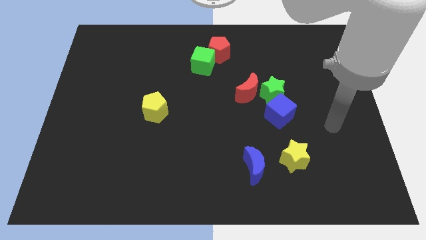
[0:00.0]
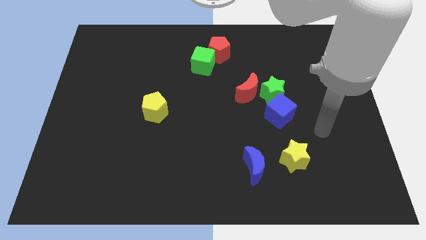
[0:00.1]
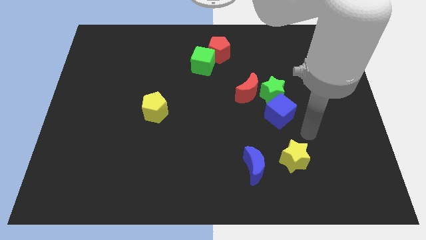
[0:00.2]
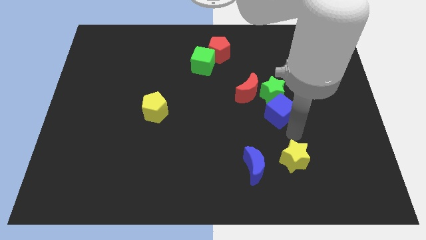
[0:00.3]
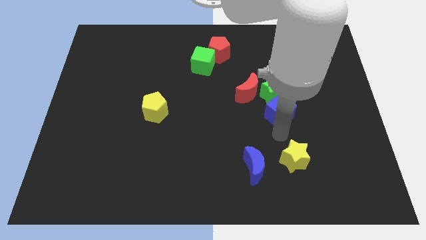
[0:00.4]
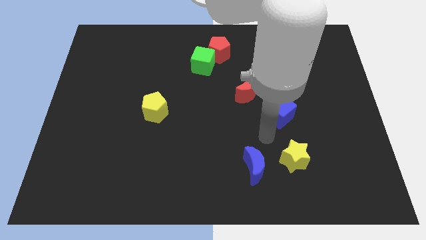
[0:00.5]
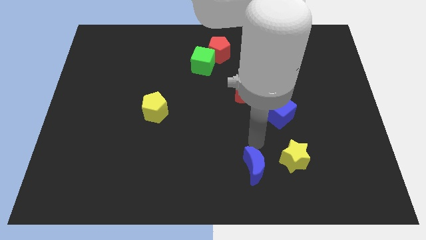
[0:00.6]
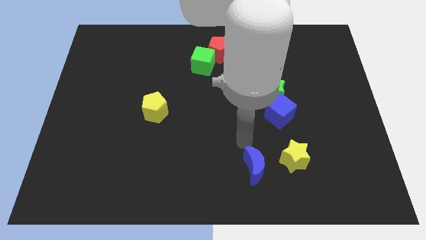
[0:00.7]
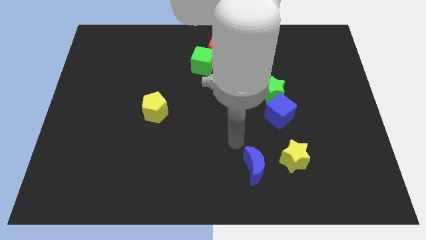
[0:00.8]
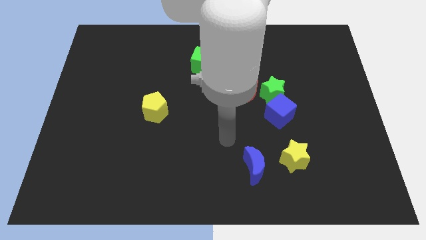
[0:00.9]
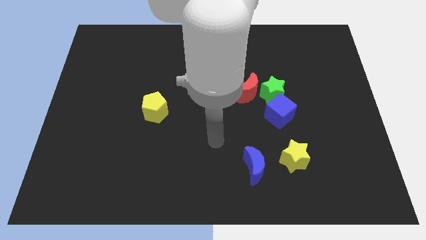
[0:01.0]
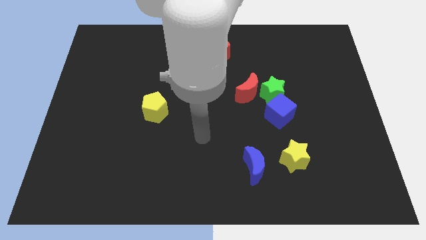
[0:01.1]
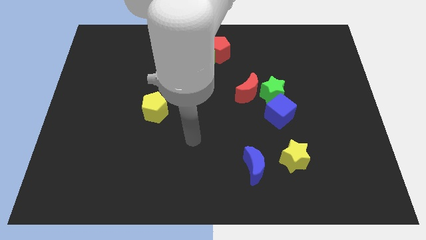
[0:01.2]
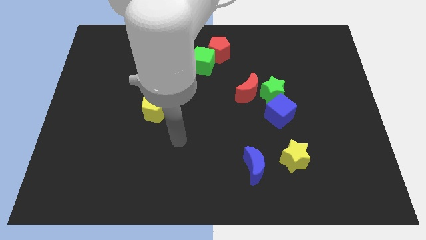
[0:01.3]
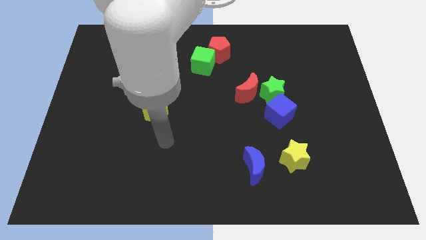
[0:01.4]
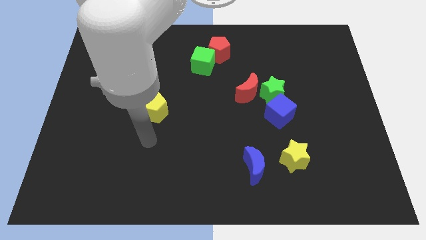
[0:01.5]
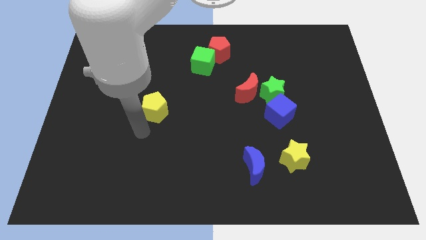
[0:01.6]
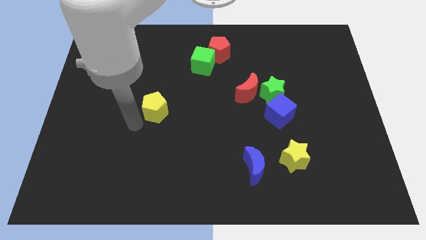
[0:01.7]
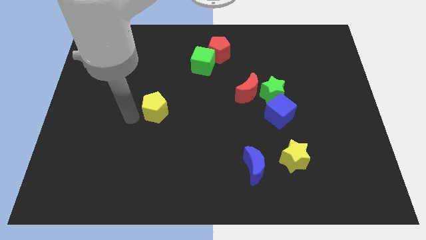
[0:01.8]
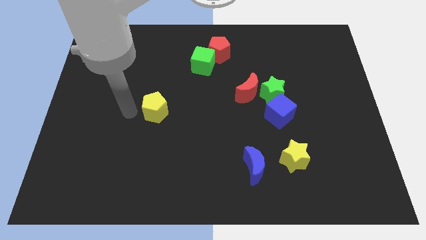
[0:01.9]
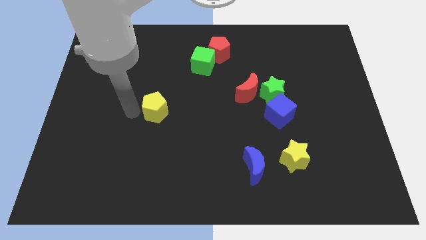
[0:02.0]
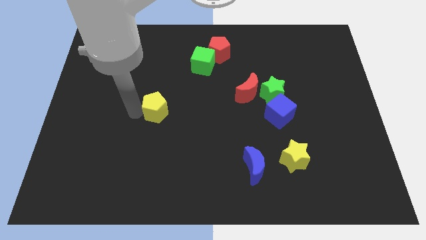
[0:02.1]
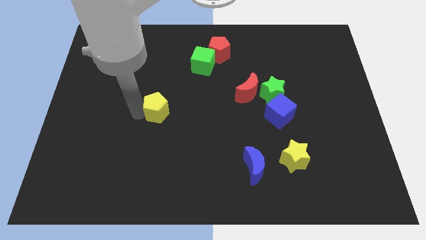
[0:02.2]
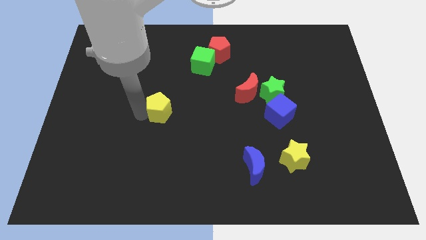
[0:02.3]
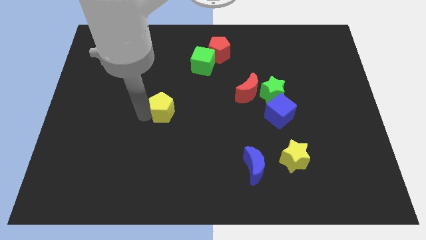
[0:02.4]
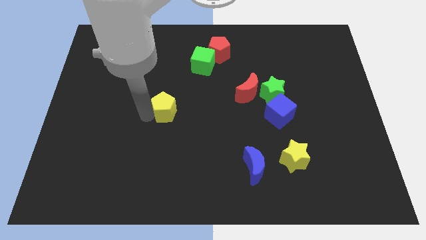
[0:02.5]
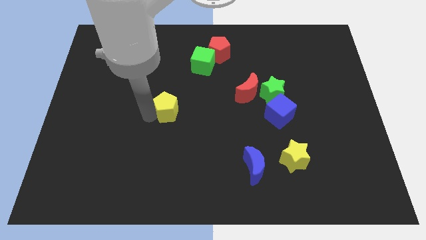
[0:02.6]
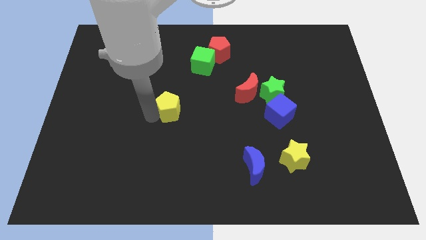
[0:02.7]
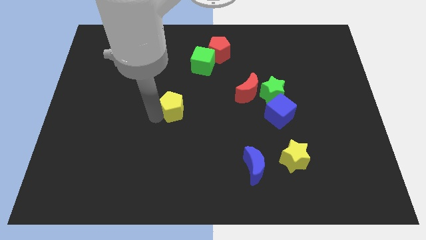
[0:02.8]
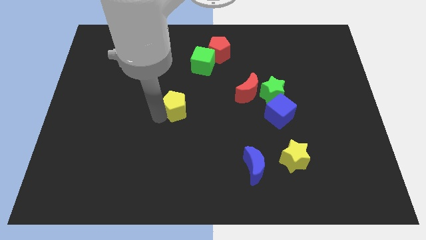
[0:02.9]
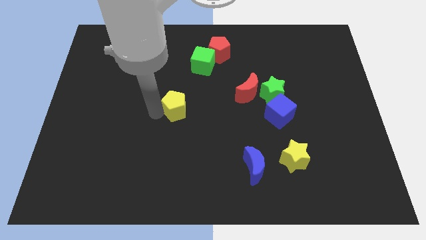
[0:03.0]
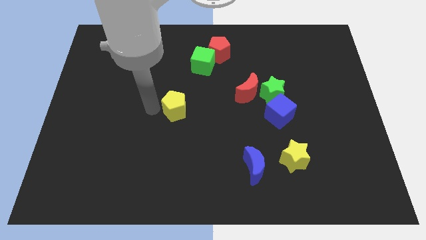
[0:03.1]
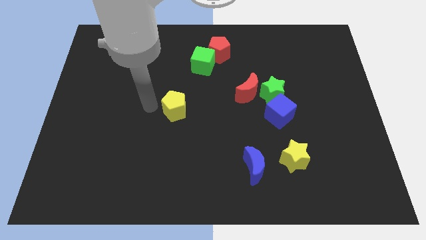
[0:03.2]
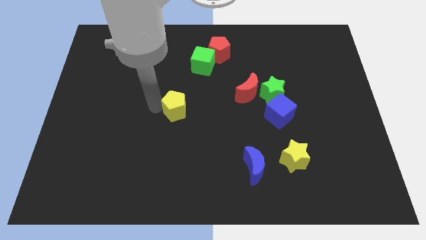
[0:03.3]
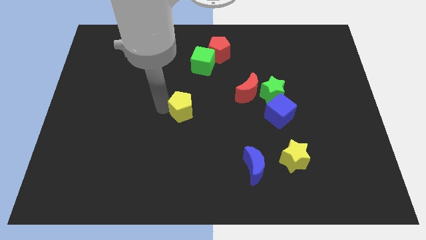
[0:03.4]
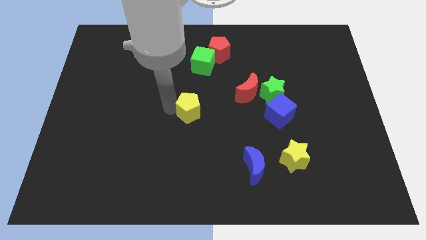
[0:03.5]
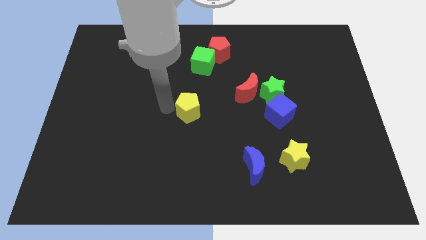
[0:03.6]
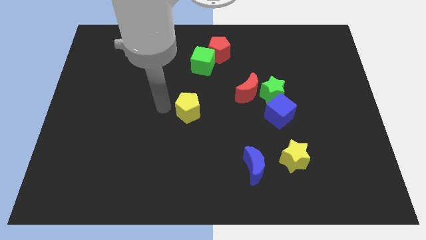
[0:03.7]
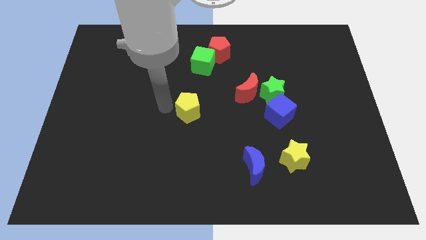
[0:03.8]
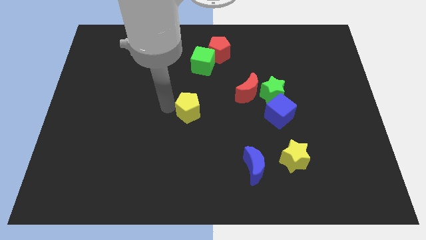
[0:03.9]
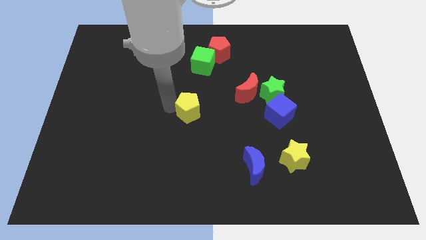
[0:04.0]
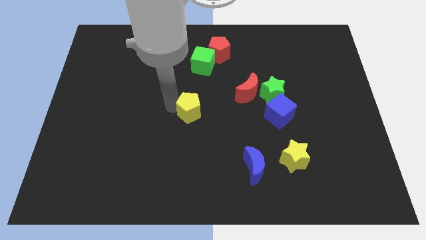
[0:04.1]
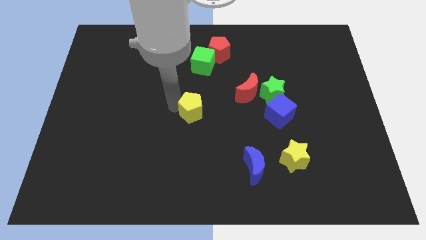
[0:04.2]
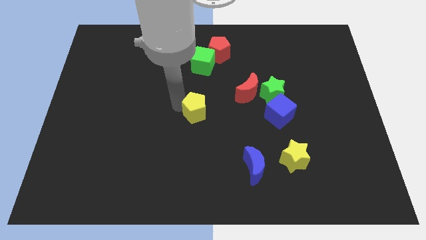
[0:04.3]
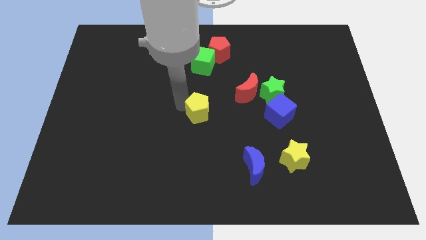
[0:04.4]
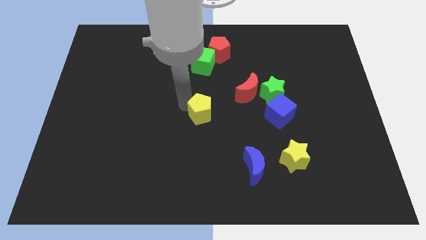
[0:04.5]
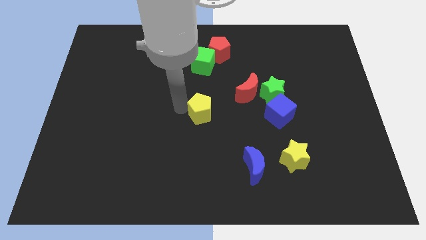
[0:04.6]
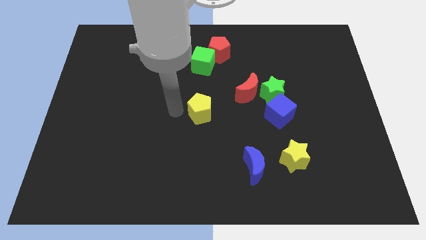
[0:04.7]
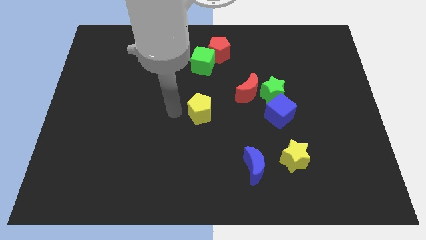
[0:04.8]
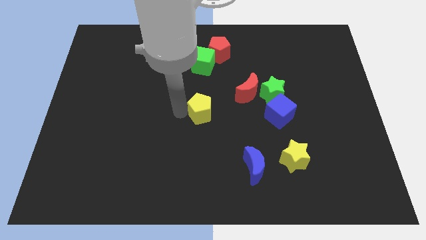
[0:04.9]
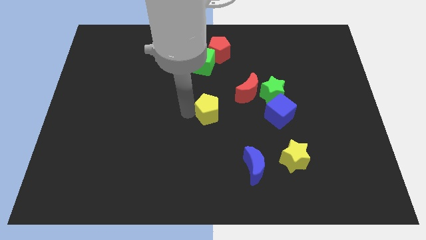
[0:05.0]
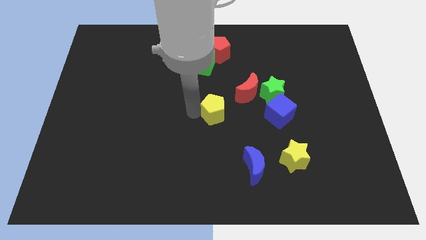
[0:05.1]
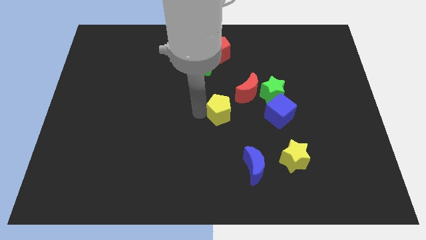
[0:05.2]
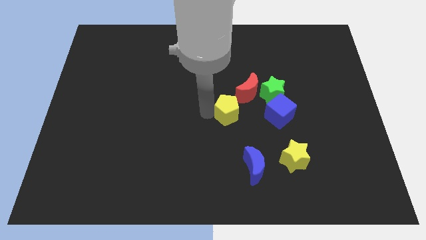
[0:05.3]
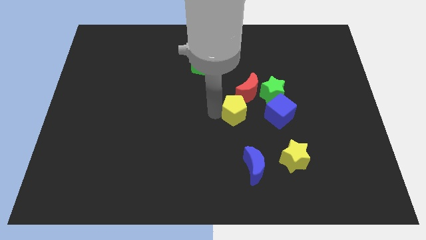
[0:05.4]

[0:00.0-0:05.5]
move the yellow pentagon diagonally down and to the left of the green star

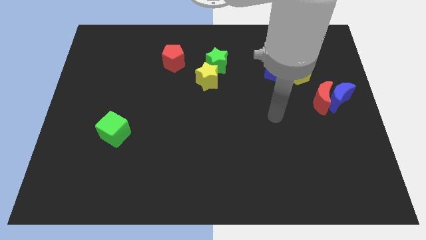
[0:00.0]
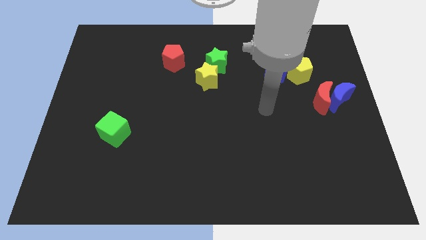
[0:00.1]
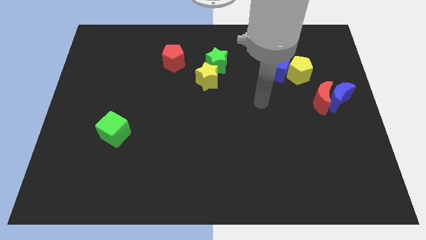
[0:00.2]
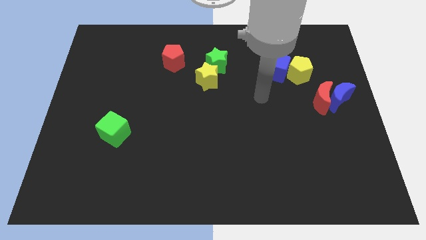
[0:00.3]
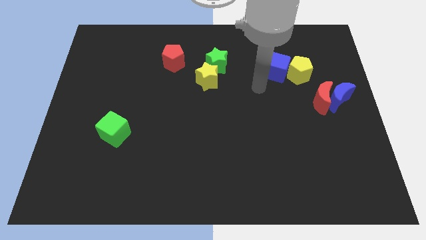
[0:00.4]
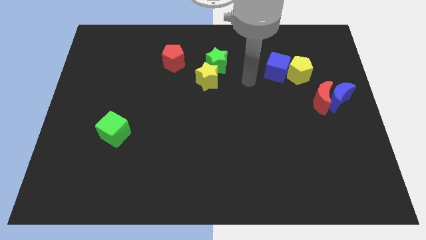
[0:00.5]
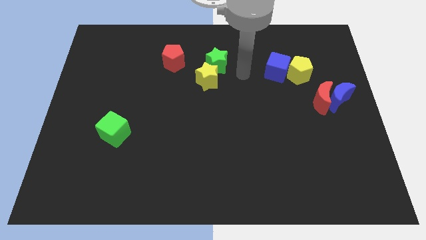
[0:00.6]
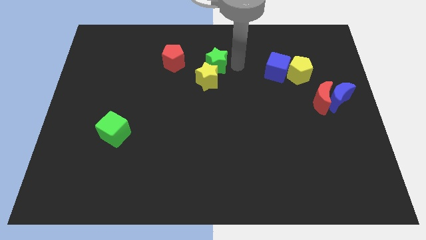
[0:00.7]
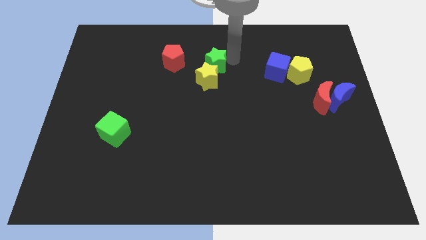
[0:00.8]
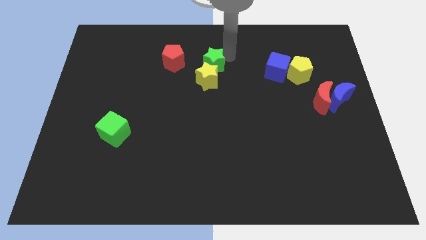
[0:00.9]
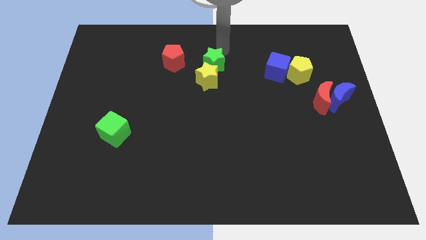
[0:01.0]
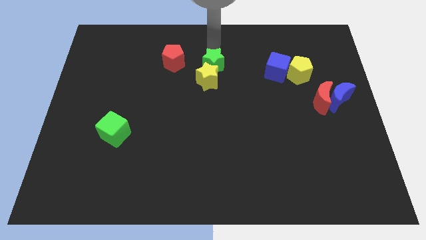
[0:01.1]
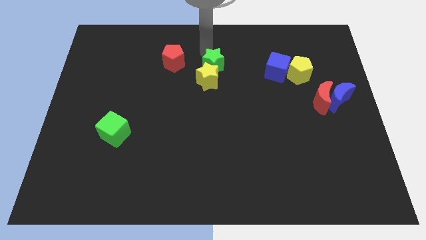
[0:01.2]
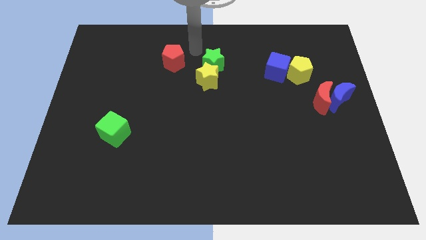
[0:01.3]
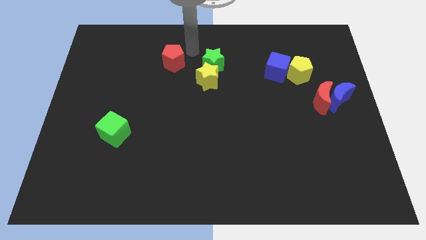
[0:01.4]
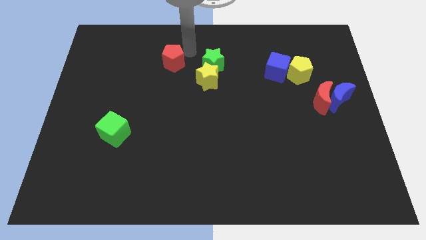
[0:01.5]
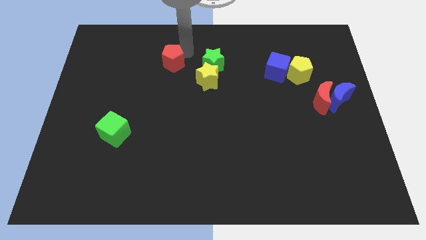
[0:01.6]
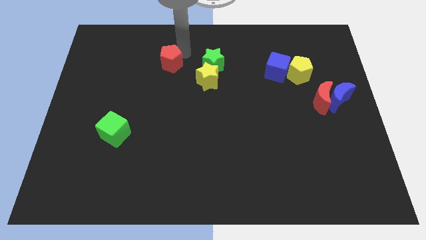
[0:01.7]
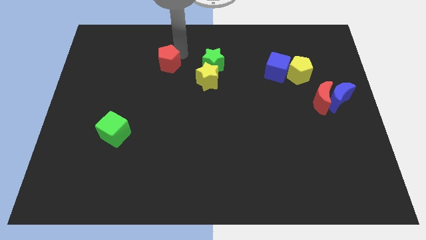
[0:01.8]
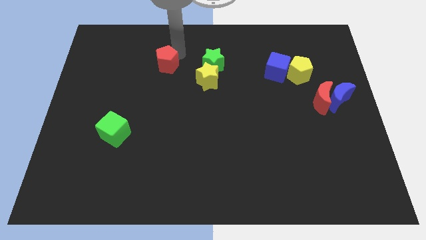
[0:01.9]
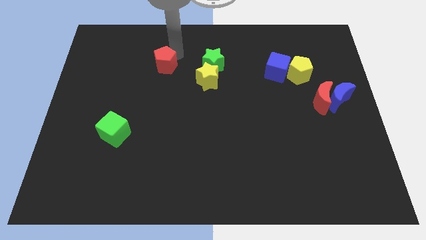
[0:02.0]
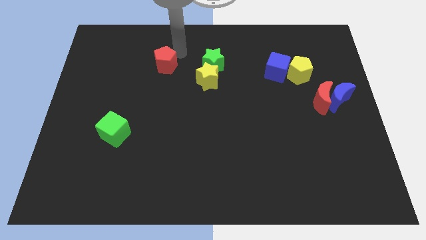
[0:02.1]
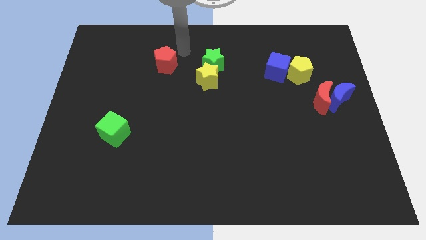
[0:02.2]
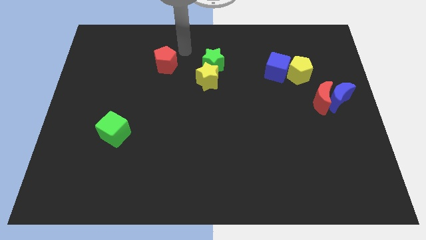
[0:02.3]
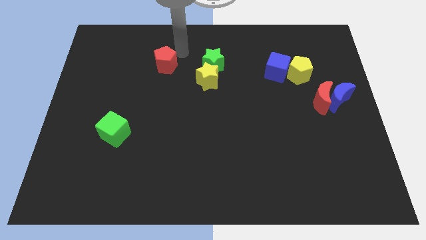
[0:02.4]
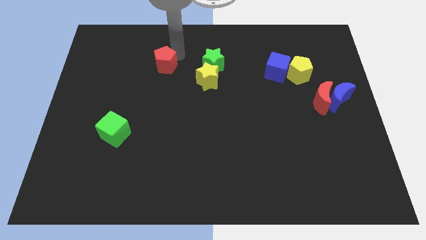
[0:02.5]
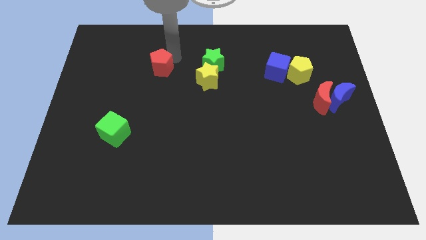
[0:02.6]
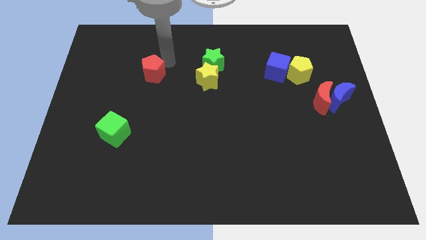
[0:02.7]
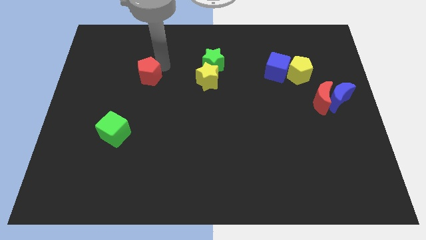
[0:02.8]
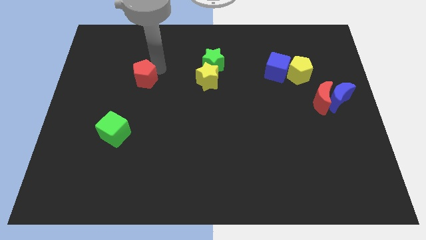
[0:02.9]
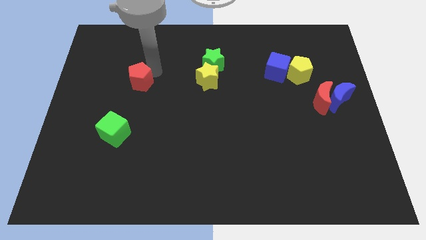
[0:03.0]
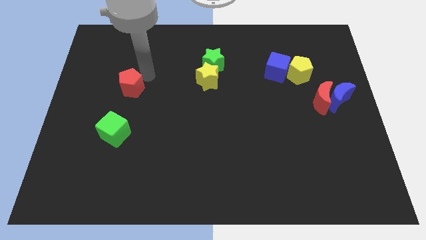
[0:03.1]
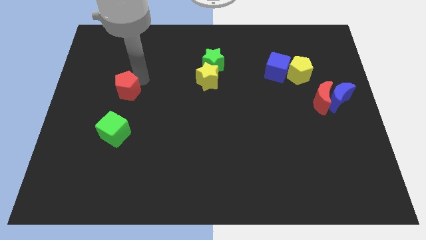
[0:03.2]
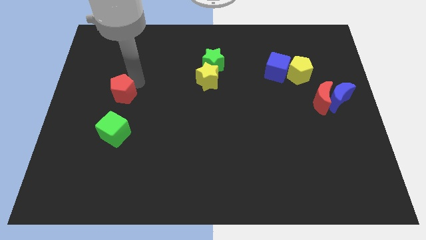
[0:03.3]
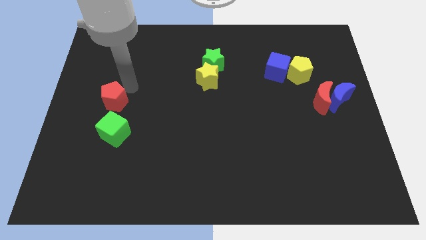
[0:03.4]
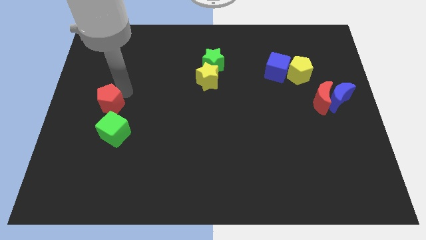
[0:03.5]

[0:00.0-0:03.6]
put the red pentagon diagonally up and to the left of the green cube
